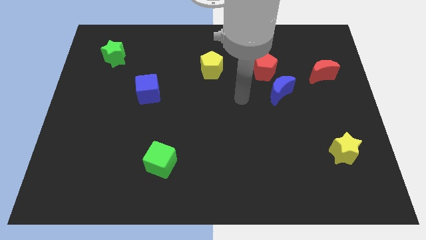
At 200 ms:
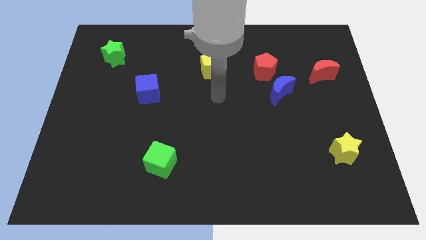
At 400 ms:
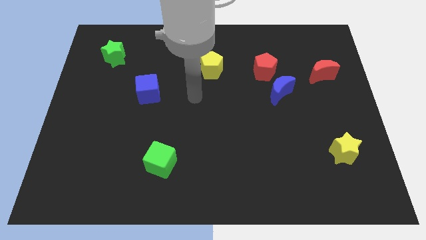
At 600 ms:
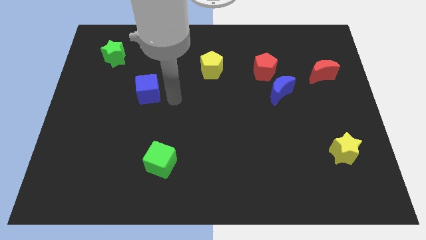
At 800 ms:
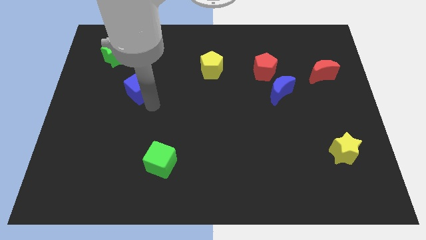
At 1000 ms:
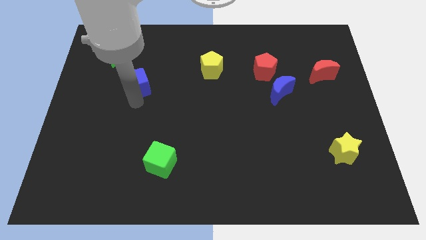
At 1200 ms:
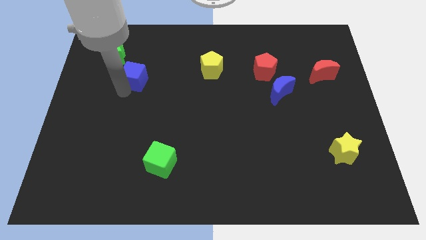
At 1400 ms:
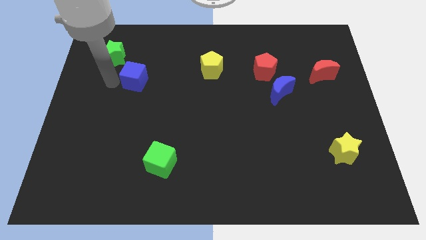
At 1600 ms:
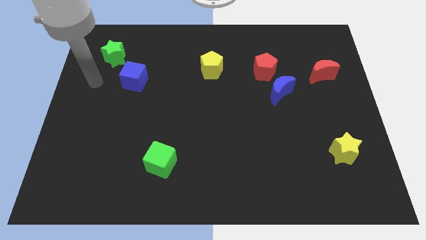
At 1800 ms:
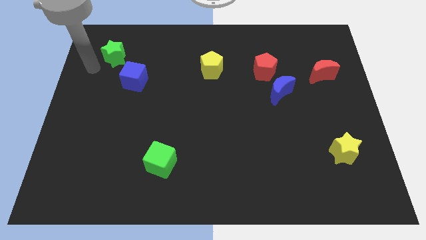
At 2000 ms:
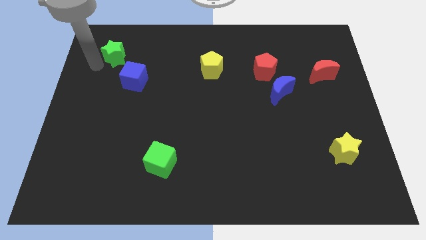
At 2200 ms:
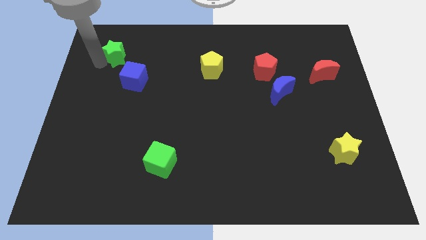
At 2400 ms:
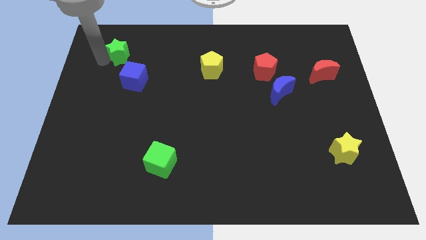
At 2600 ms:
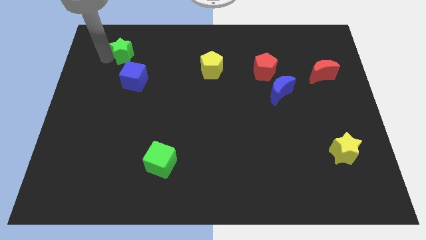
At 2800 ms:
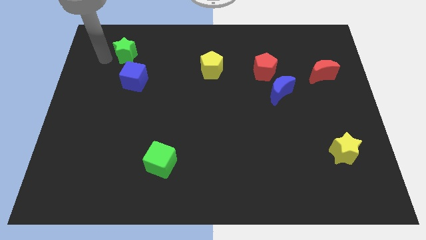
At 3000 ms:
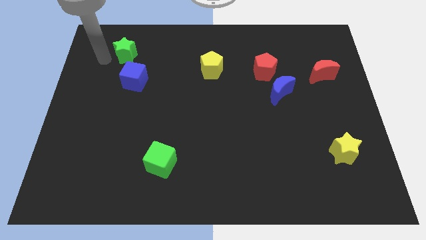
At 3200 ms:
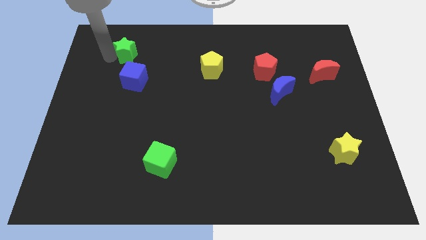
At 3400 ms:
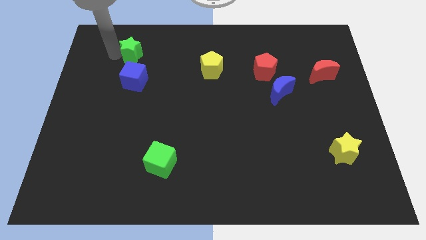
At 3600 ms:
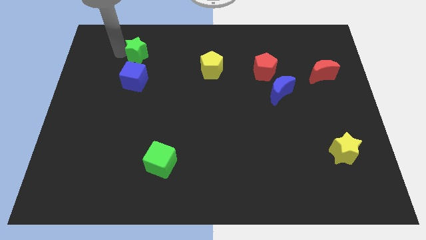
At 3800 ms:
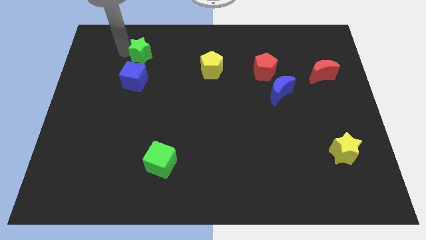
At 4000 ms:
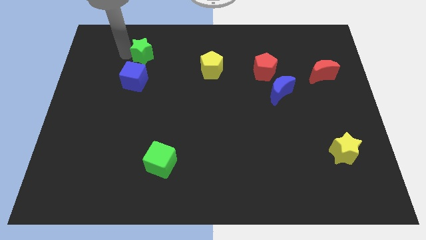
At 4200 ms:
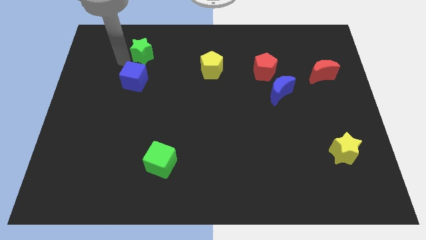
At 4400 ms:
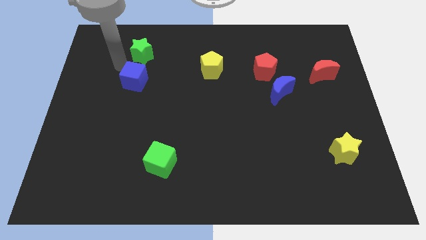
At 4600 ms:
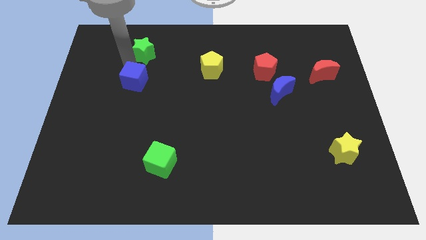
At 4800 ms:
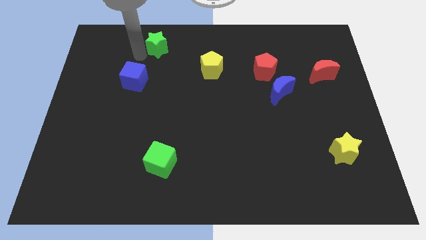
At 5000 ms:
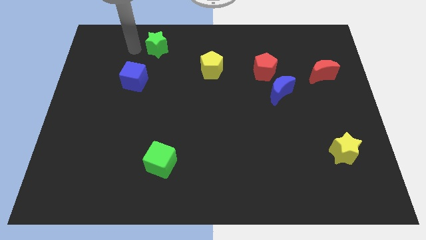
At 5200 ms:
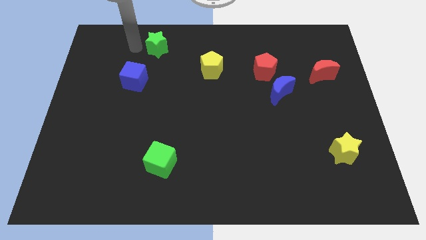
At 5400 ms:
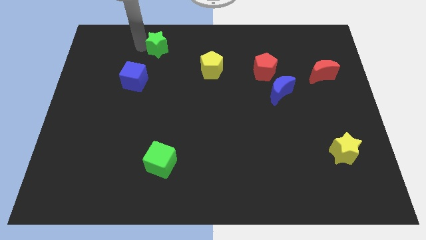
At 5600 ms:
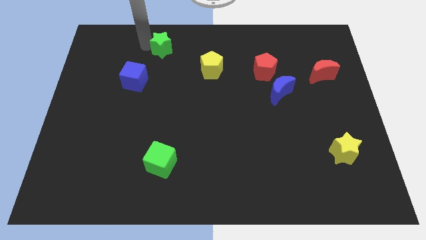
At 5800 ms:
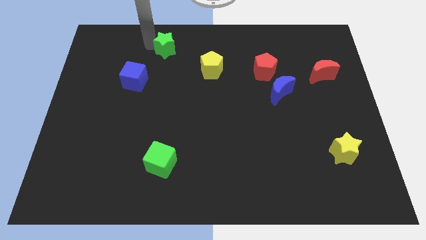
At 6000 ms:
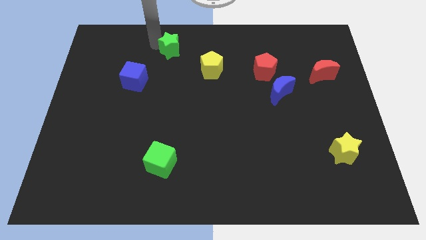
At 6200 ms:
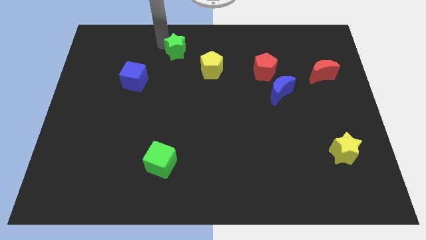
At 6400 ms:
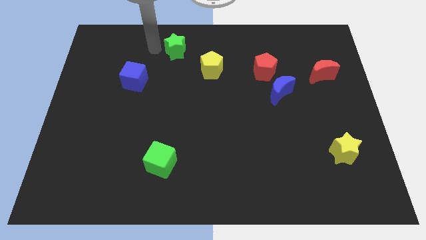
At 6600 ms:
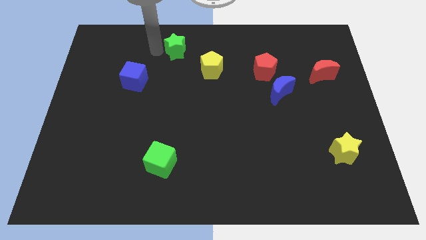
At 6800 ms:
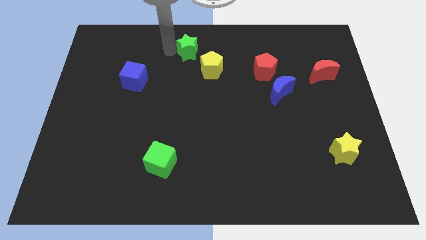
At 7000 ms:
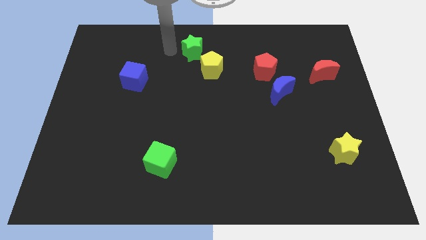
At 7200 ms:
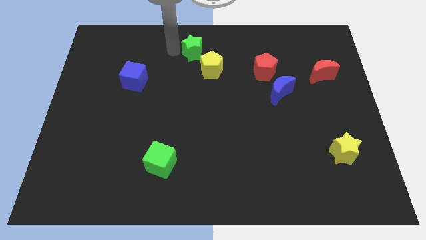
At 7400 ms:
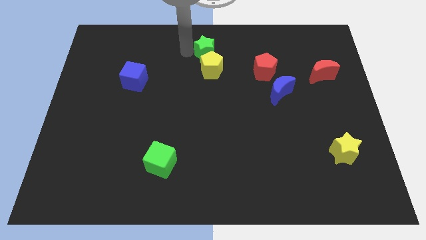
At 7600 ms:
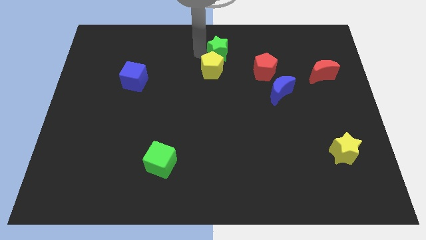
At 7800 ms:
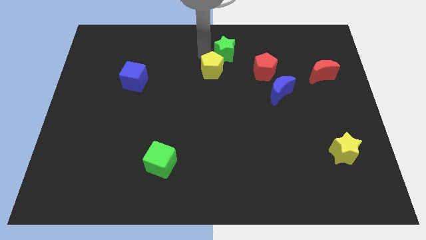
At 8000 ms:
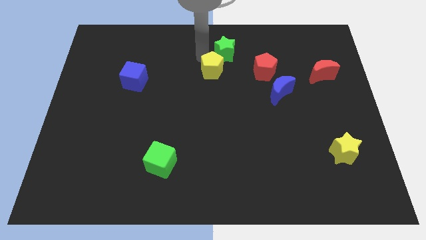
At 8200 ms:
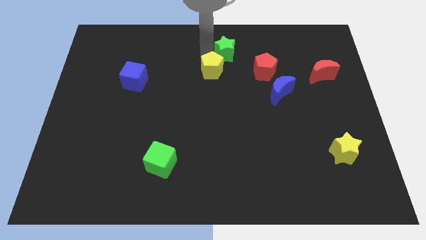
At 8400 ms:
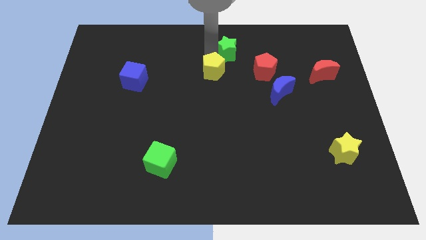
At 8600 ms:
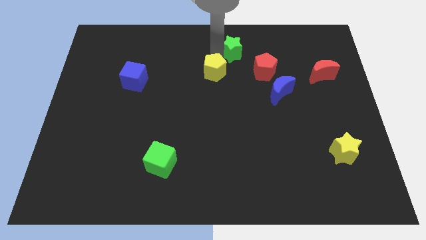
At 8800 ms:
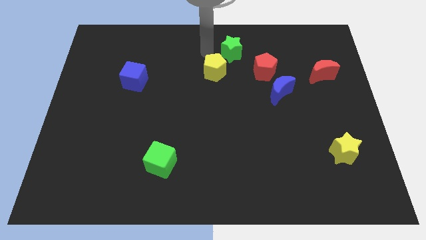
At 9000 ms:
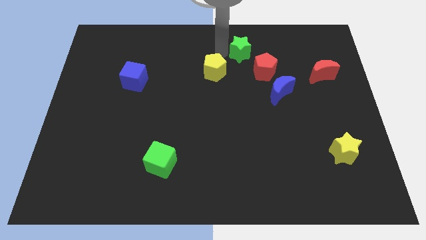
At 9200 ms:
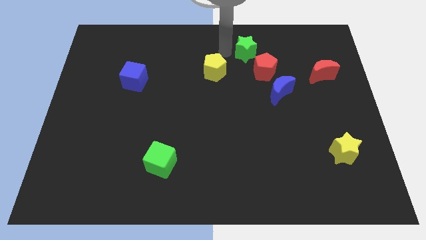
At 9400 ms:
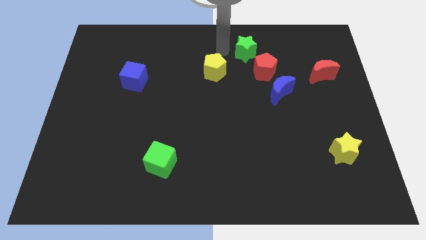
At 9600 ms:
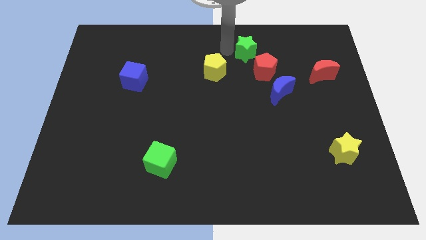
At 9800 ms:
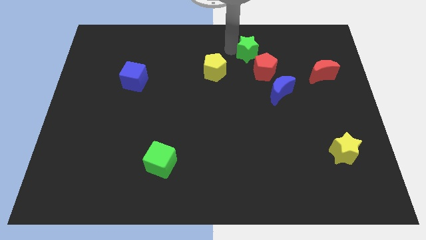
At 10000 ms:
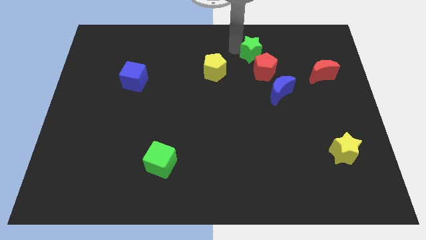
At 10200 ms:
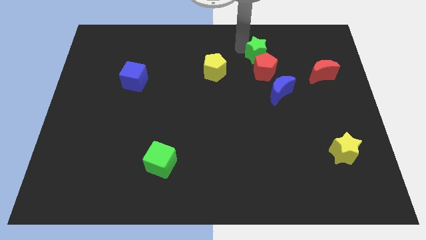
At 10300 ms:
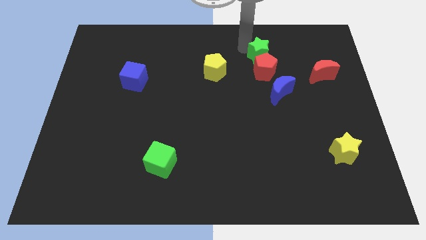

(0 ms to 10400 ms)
put the green star diagonally up and to the right of the red pentagon

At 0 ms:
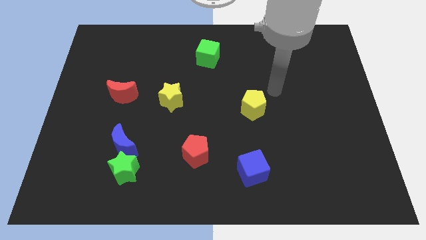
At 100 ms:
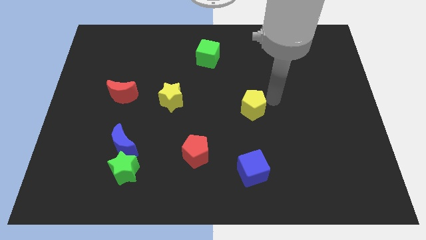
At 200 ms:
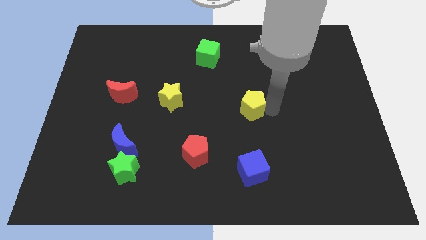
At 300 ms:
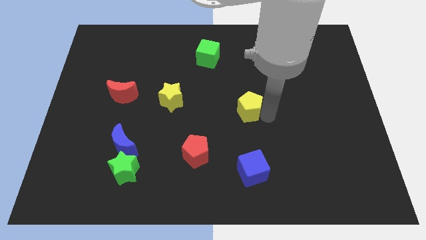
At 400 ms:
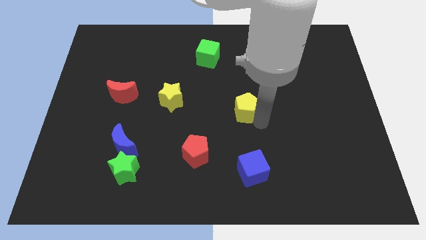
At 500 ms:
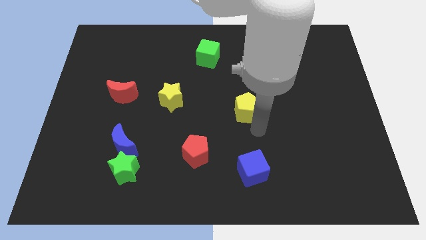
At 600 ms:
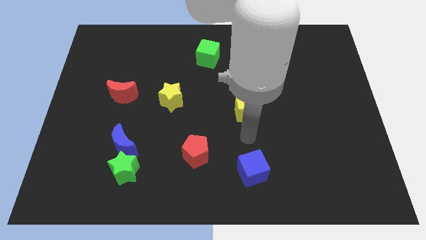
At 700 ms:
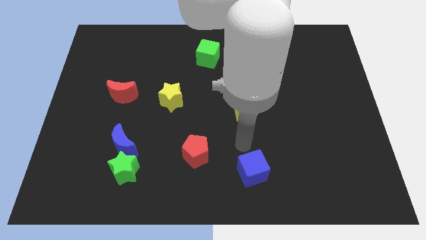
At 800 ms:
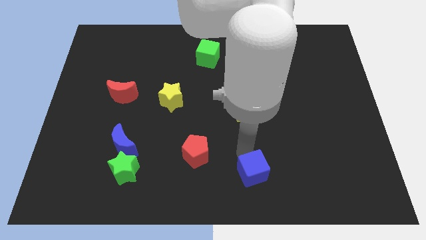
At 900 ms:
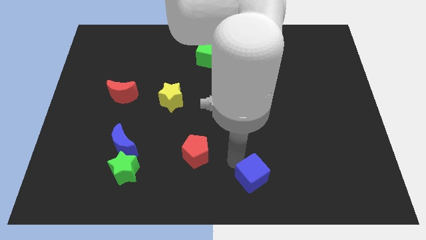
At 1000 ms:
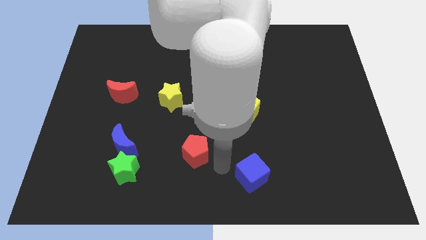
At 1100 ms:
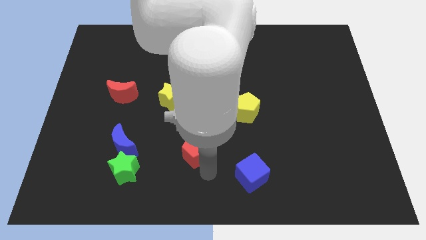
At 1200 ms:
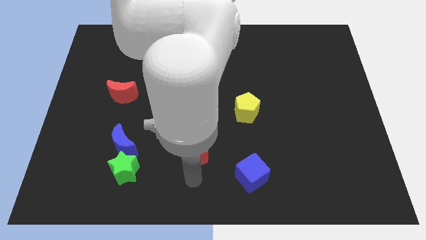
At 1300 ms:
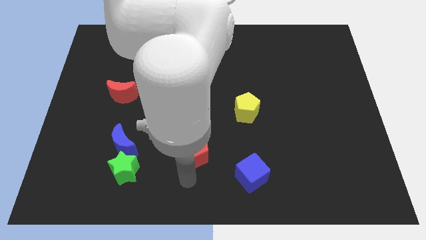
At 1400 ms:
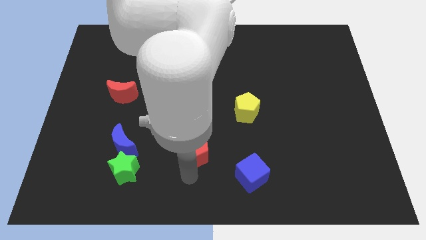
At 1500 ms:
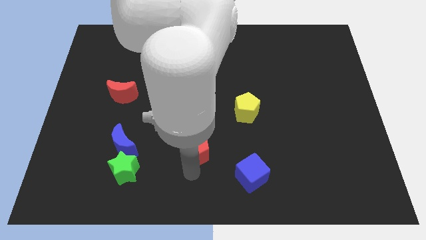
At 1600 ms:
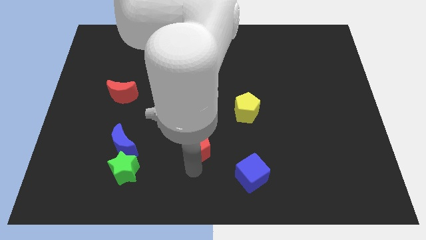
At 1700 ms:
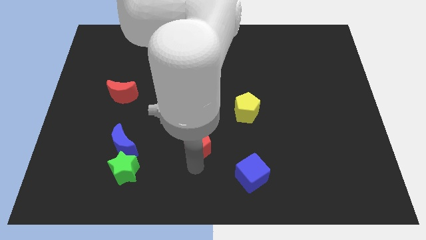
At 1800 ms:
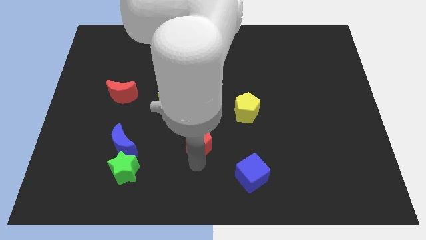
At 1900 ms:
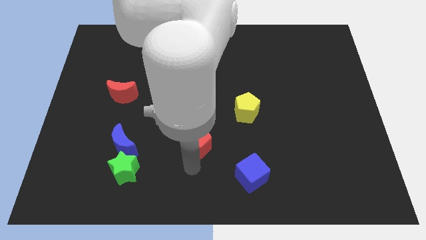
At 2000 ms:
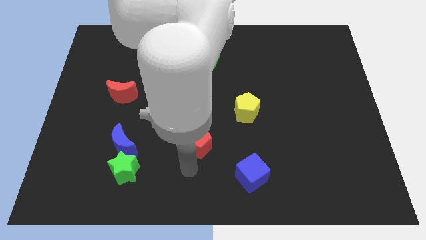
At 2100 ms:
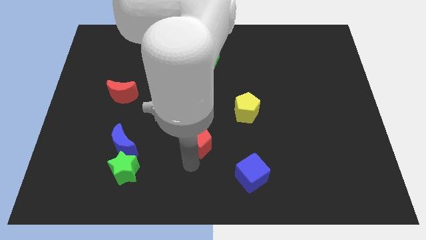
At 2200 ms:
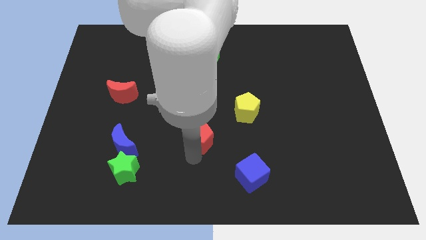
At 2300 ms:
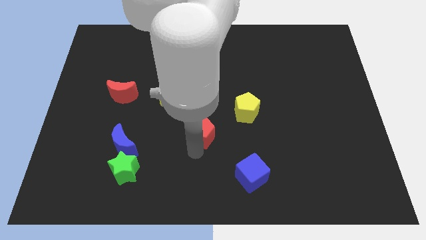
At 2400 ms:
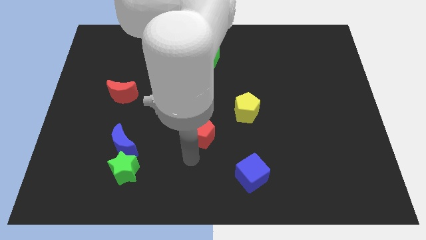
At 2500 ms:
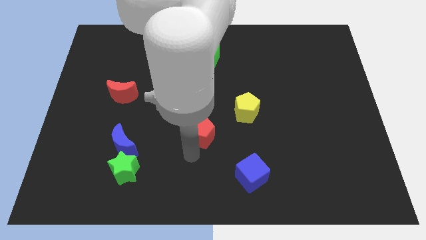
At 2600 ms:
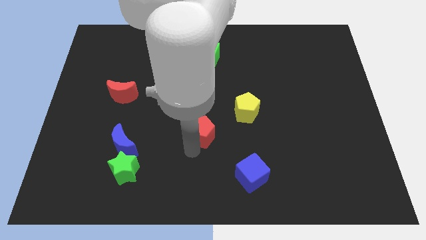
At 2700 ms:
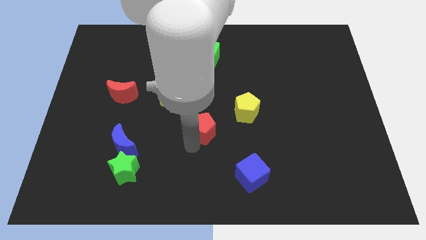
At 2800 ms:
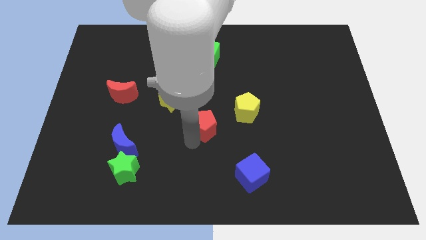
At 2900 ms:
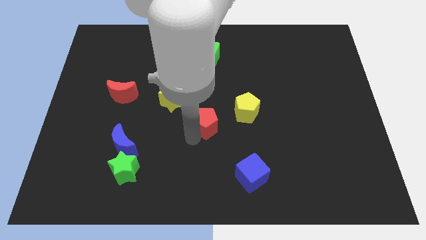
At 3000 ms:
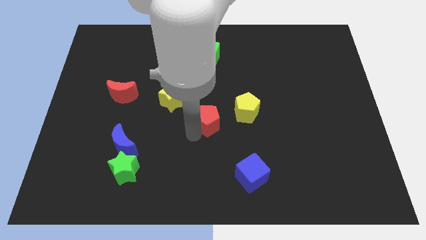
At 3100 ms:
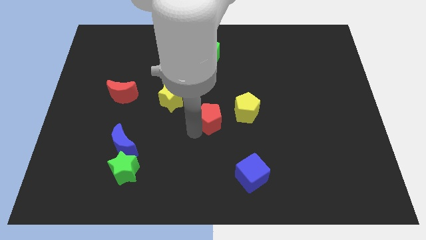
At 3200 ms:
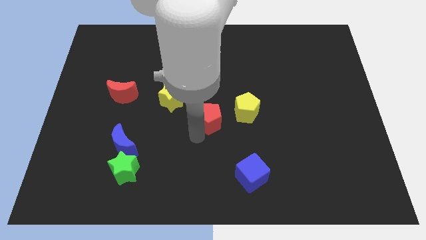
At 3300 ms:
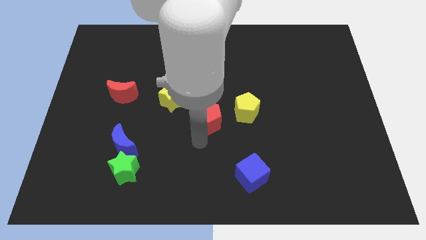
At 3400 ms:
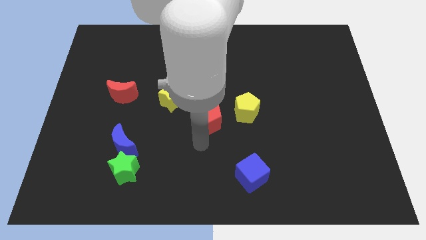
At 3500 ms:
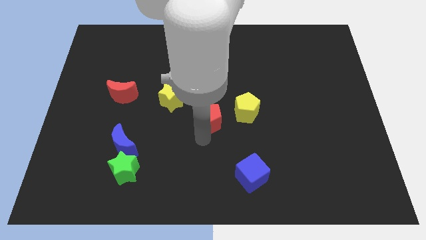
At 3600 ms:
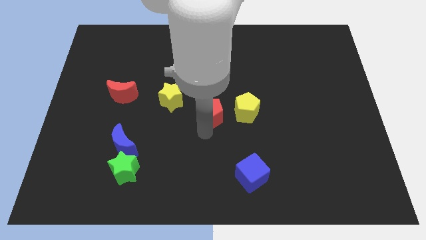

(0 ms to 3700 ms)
move the red pentagon just right of the yellow star
